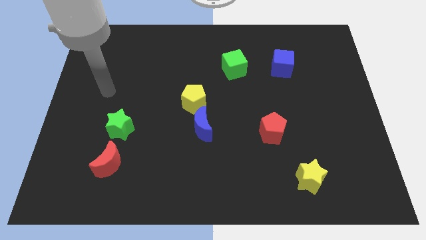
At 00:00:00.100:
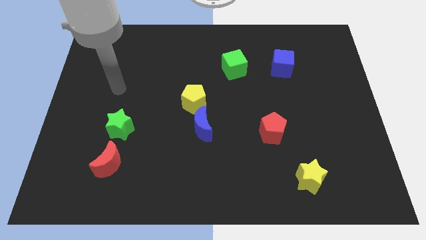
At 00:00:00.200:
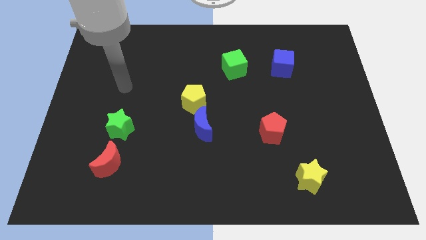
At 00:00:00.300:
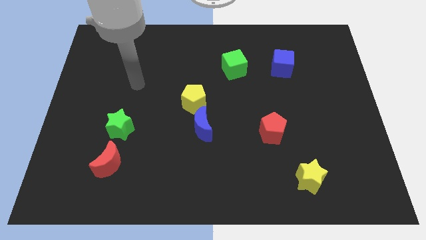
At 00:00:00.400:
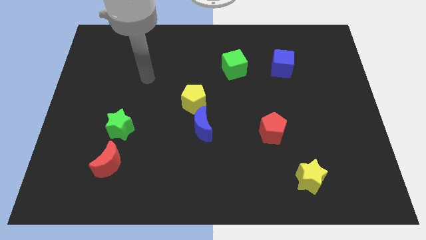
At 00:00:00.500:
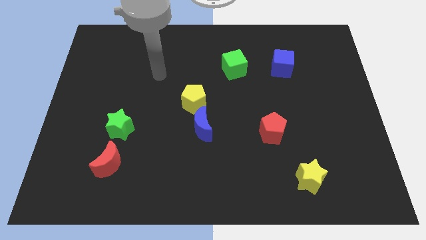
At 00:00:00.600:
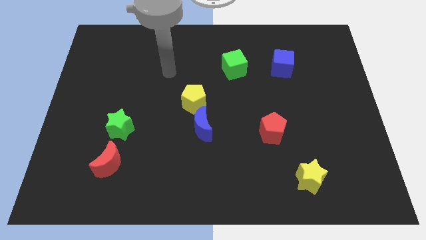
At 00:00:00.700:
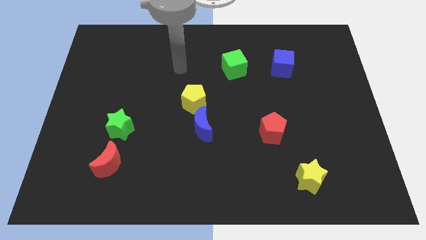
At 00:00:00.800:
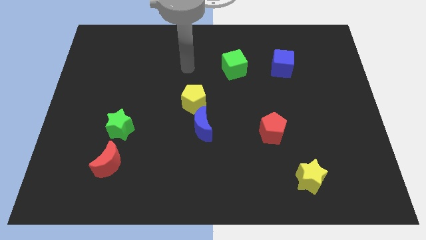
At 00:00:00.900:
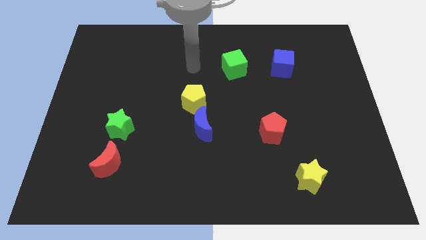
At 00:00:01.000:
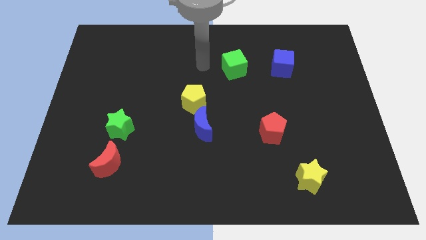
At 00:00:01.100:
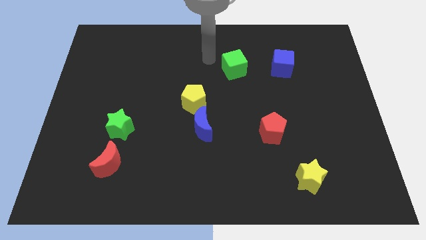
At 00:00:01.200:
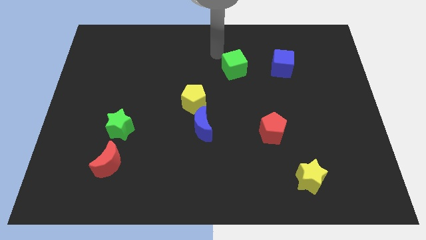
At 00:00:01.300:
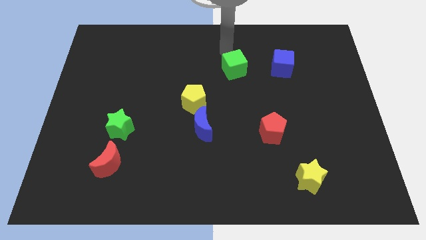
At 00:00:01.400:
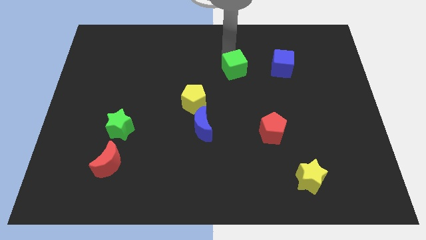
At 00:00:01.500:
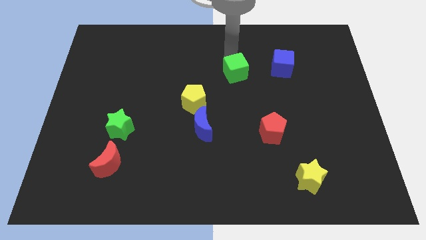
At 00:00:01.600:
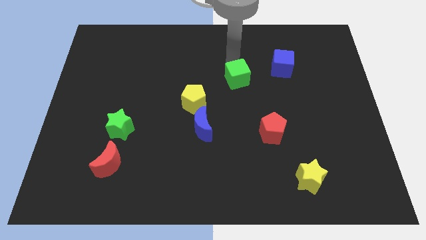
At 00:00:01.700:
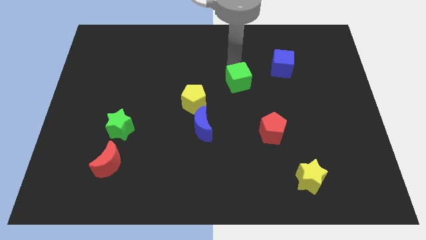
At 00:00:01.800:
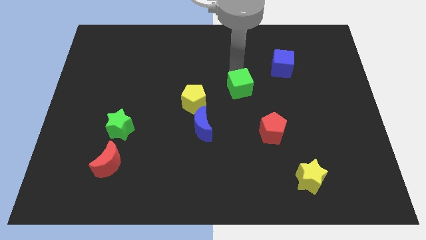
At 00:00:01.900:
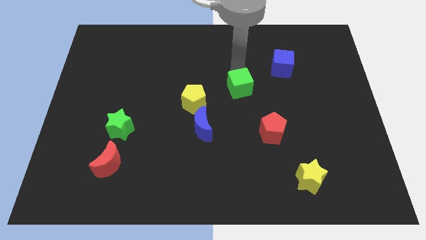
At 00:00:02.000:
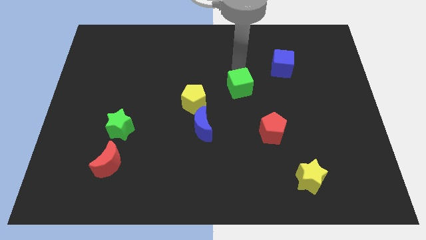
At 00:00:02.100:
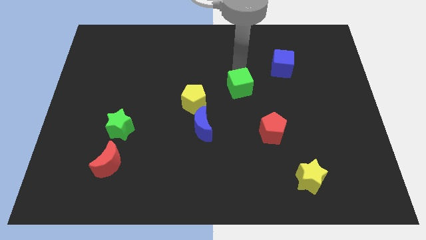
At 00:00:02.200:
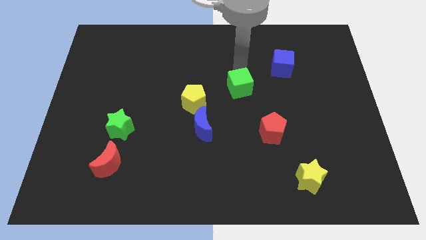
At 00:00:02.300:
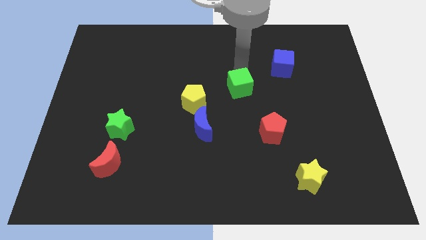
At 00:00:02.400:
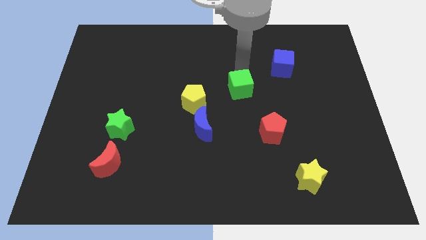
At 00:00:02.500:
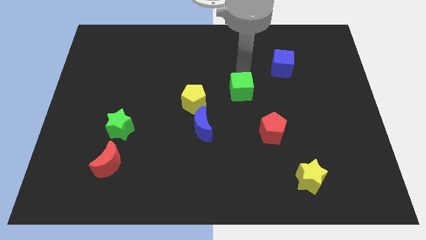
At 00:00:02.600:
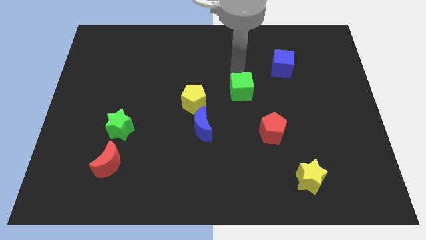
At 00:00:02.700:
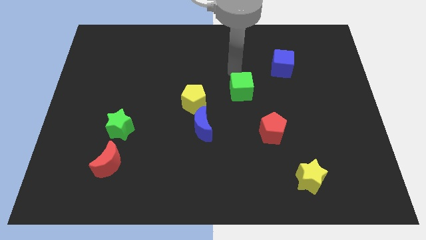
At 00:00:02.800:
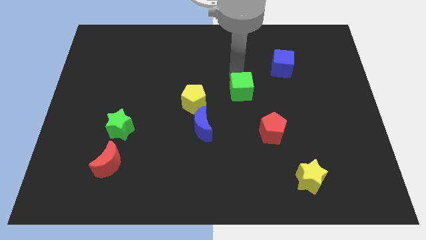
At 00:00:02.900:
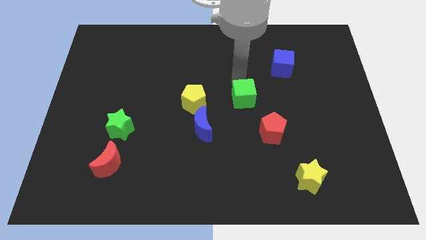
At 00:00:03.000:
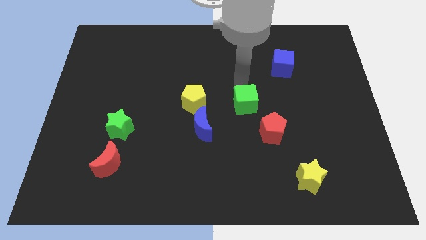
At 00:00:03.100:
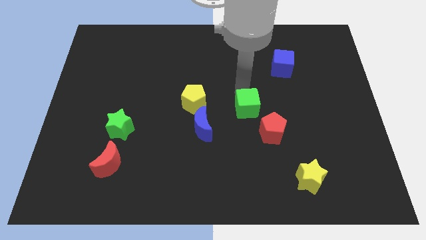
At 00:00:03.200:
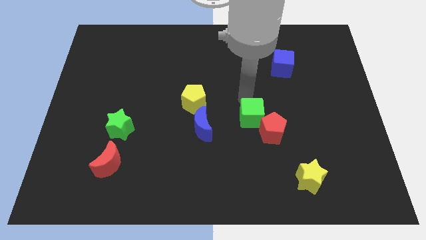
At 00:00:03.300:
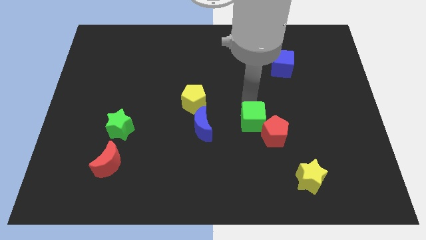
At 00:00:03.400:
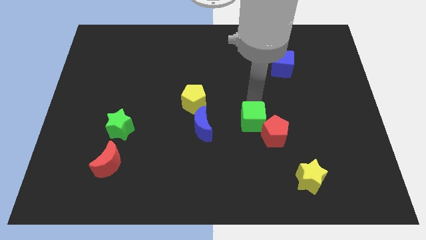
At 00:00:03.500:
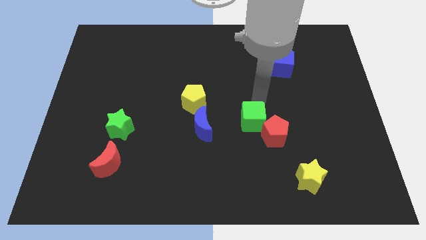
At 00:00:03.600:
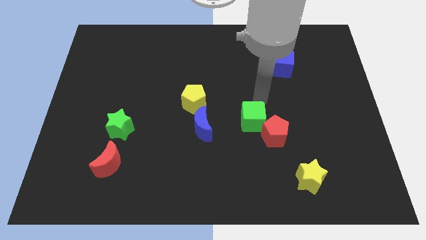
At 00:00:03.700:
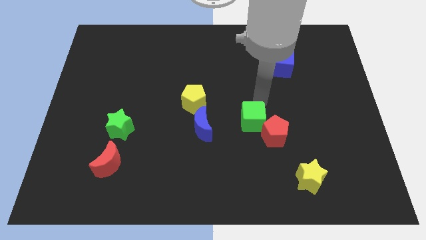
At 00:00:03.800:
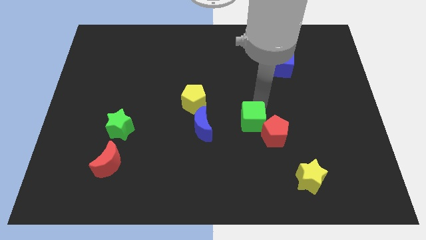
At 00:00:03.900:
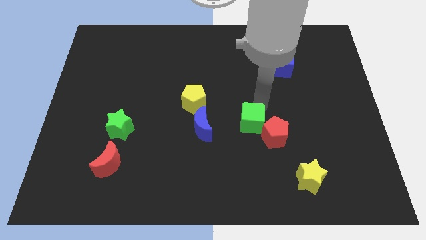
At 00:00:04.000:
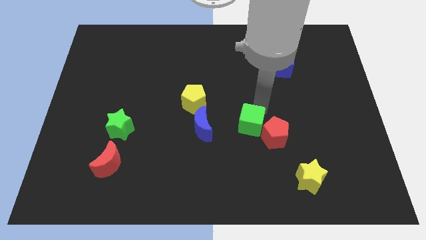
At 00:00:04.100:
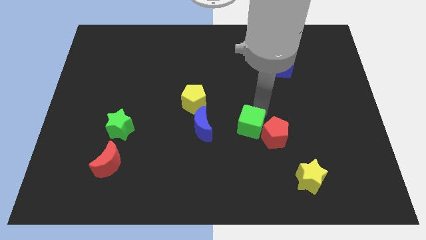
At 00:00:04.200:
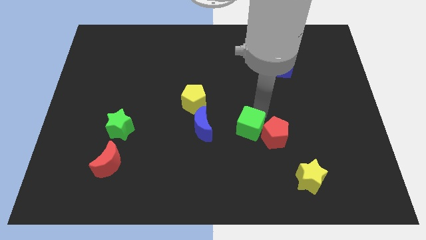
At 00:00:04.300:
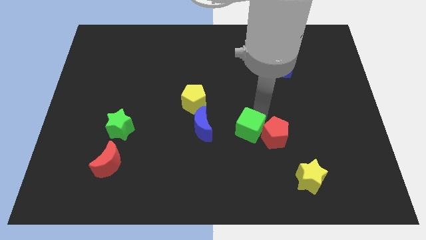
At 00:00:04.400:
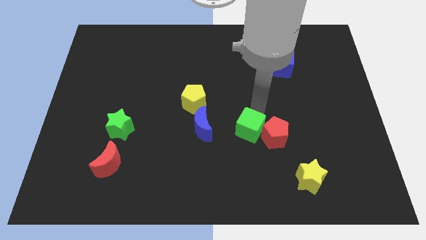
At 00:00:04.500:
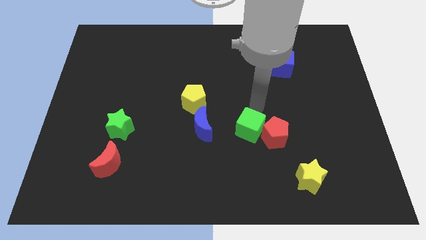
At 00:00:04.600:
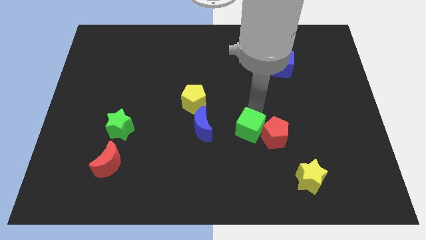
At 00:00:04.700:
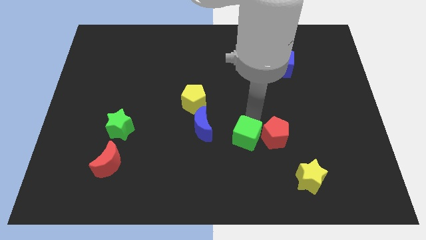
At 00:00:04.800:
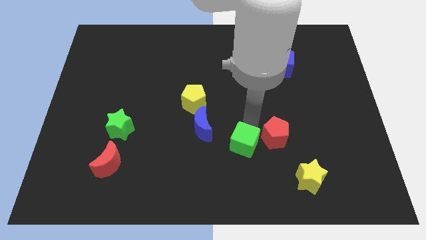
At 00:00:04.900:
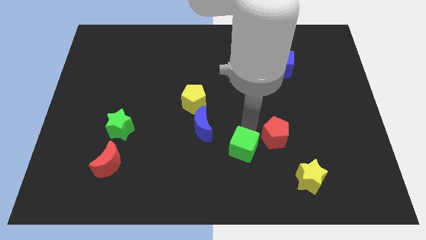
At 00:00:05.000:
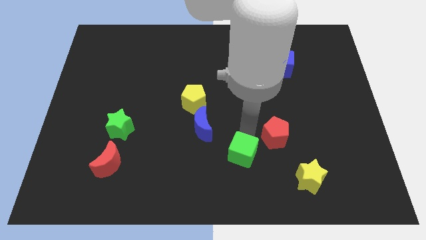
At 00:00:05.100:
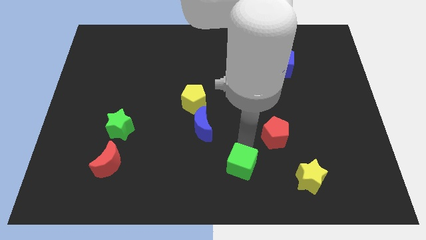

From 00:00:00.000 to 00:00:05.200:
put the green cube to the bottom side
